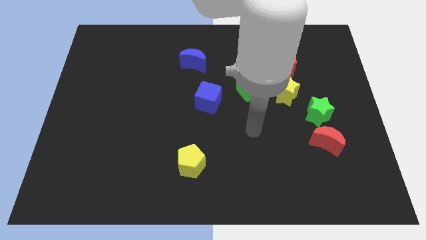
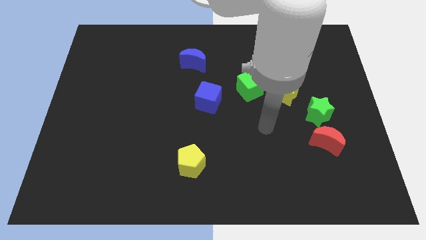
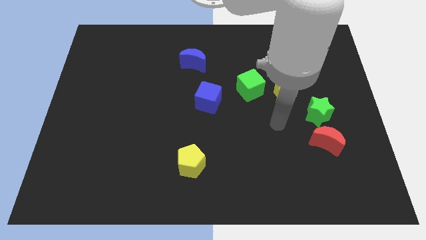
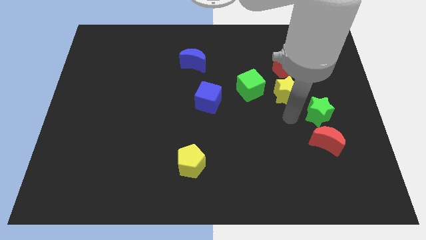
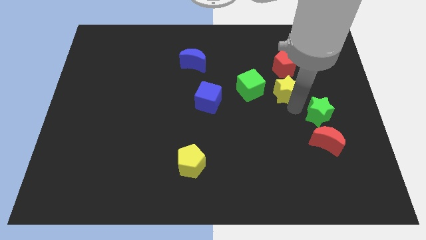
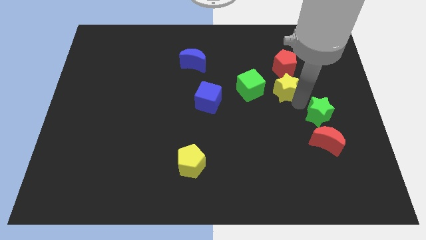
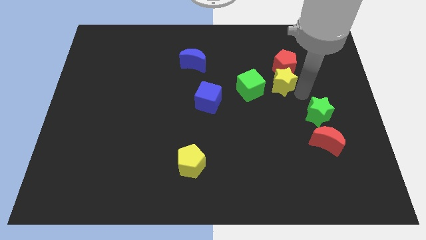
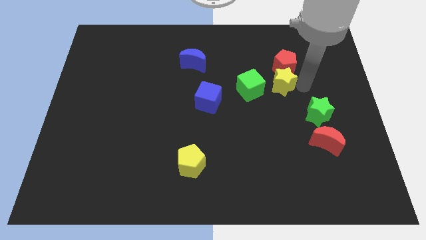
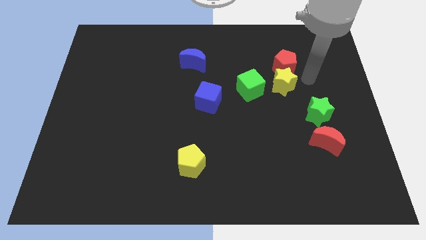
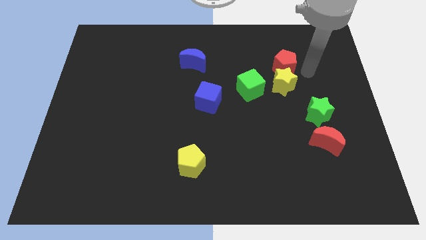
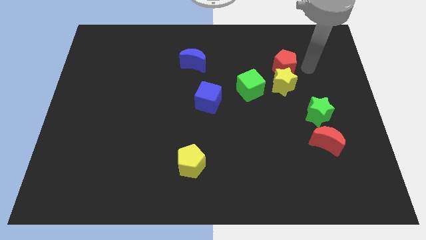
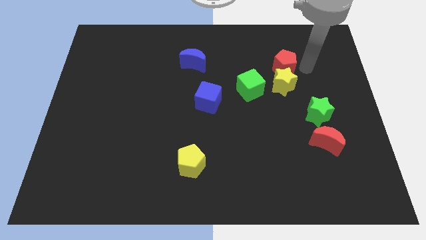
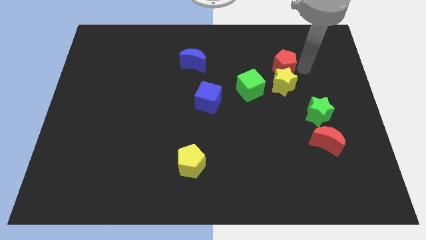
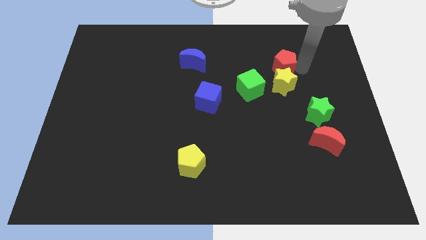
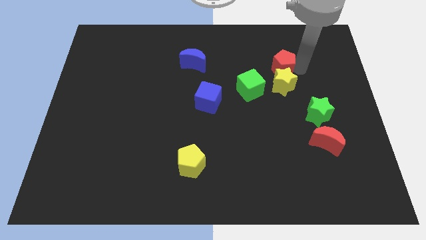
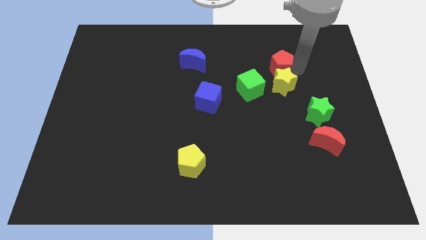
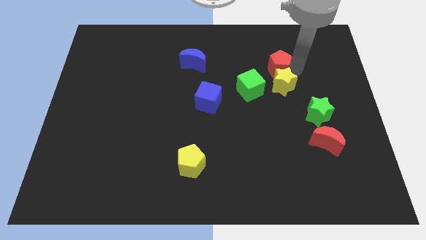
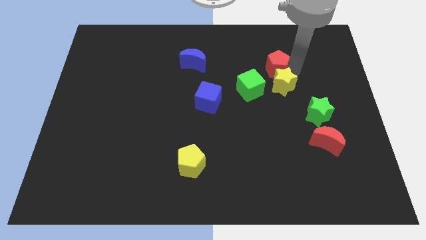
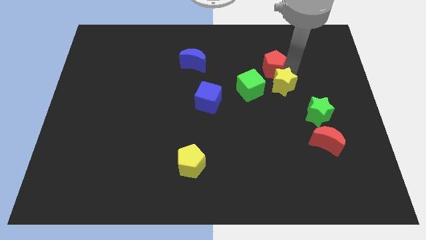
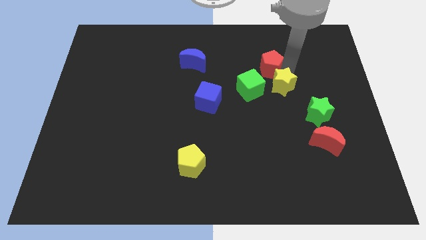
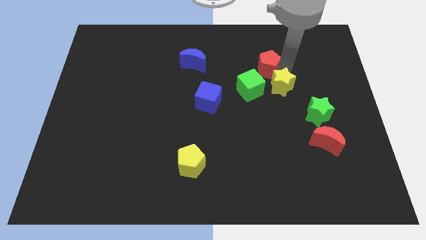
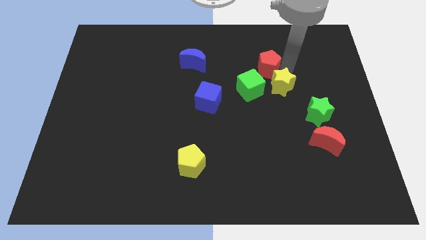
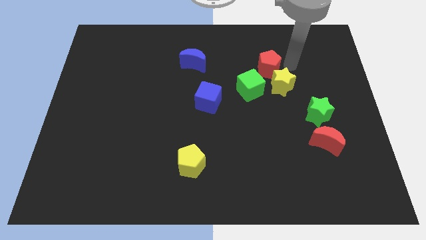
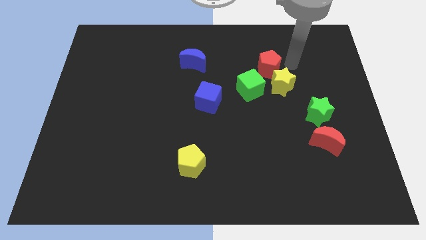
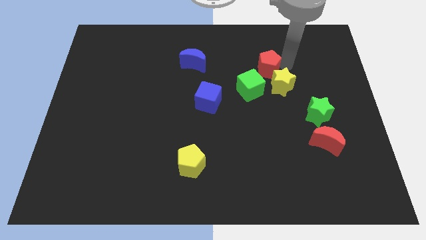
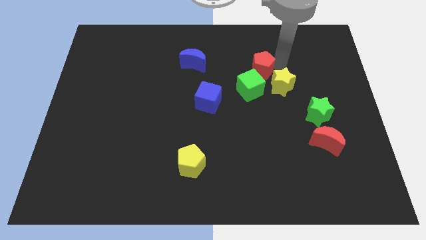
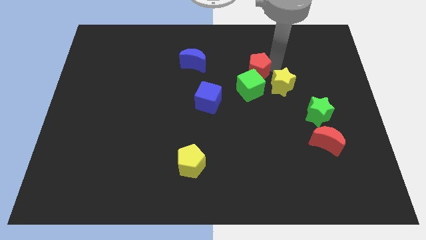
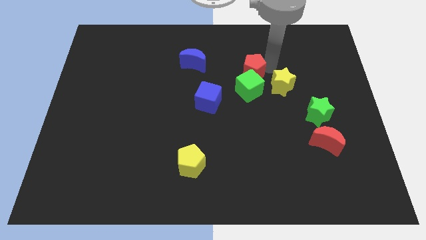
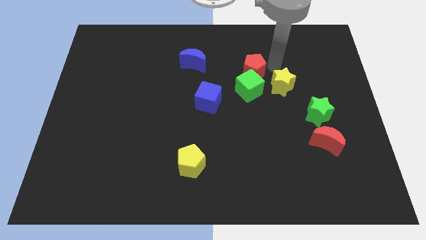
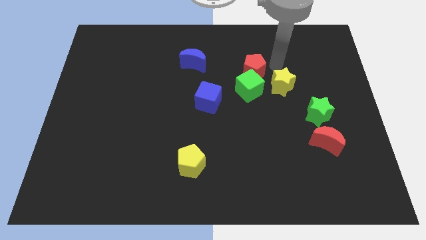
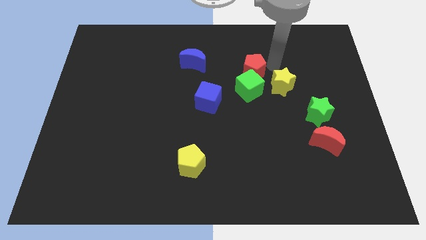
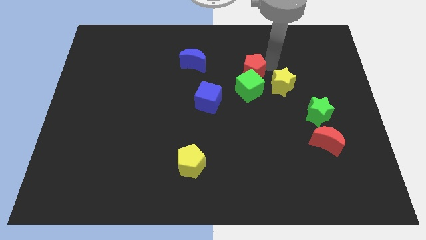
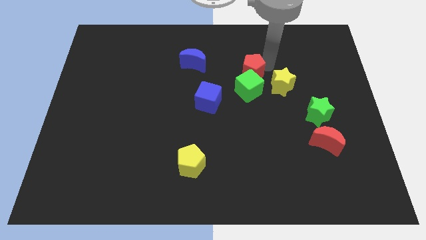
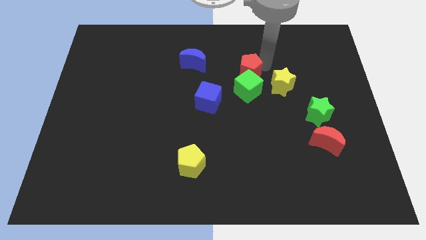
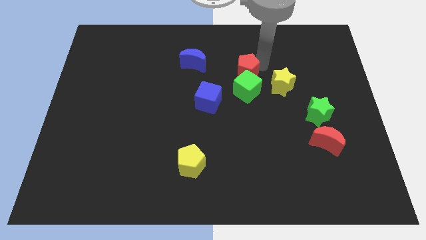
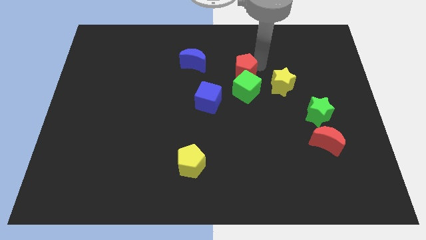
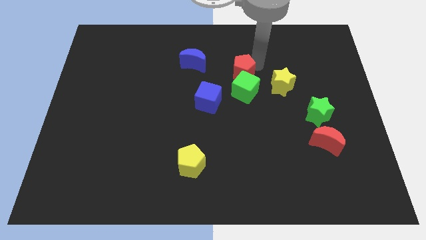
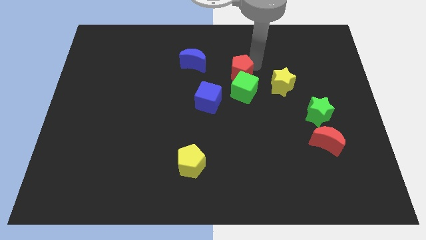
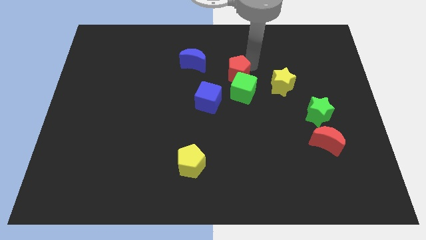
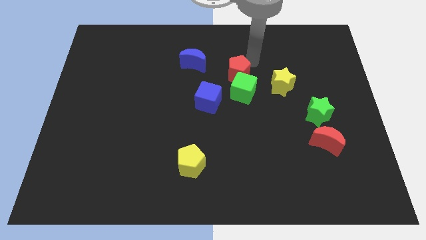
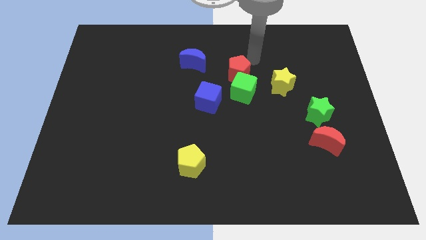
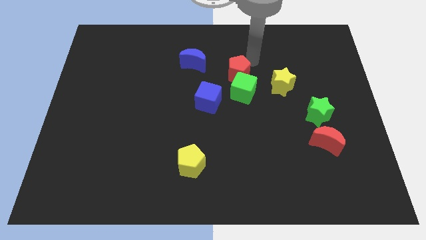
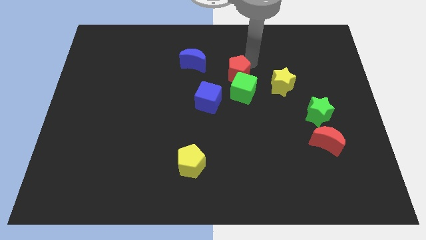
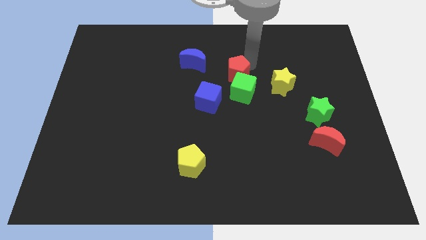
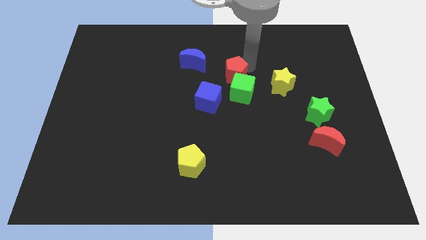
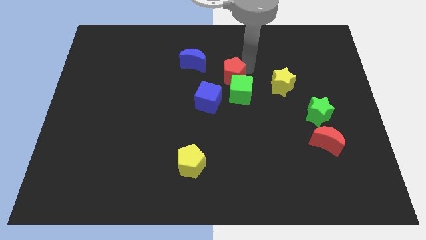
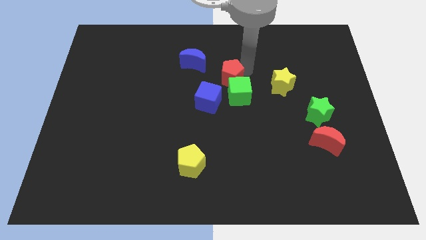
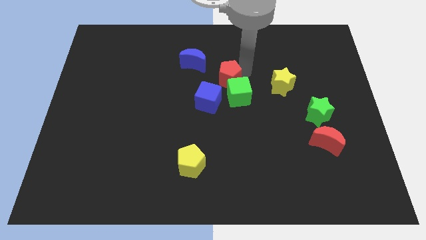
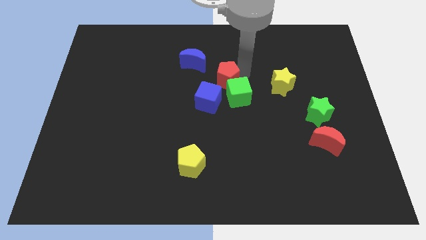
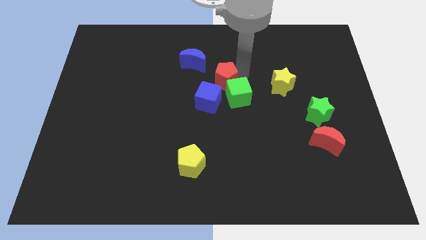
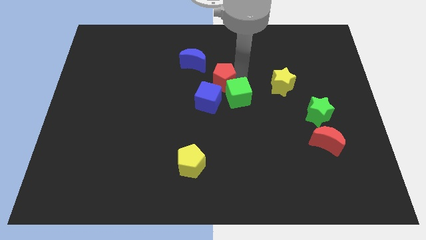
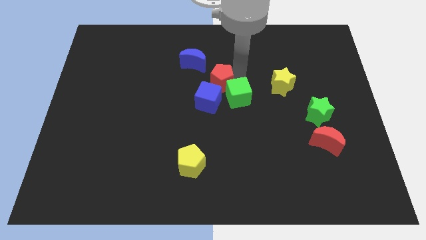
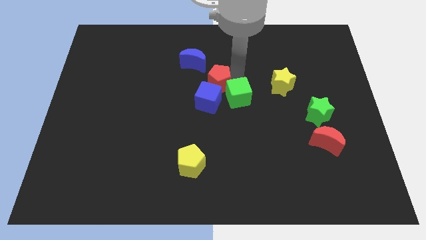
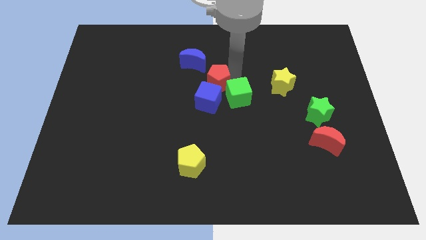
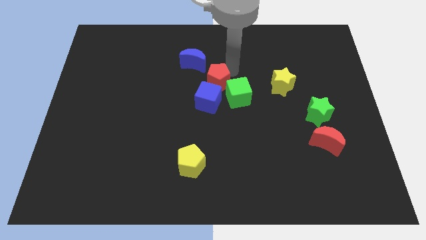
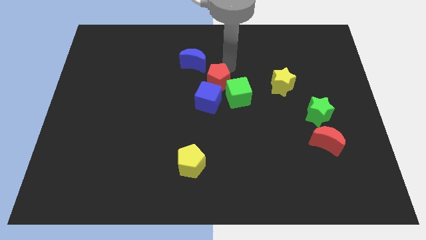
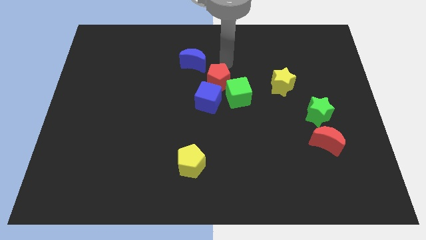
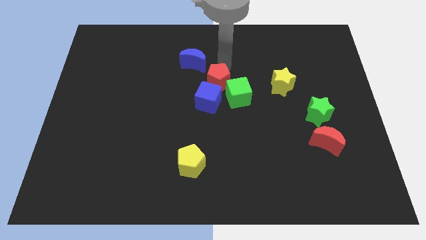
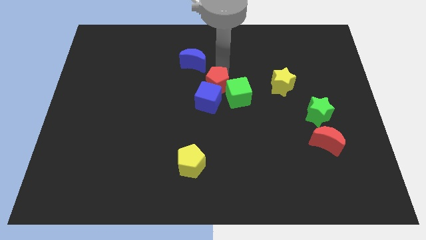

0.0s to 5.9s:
push the red pentagon next to the blue cube
